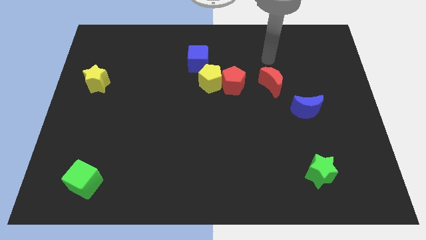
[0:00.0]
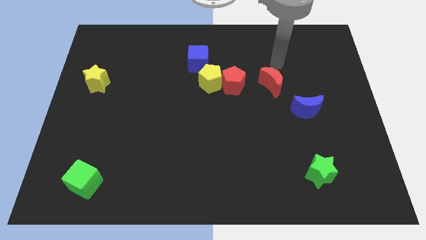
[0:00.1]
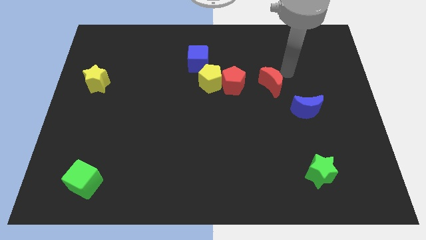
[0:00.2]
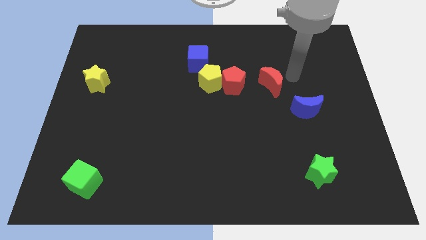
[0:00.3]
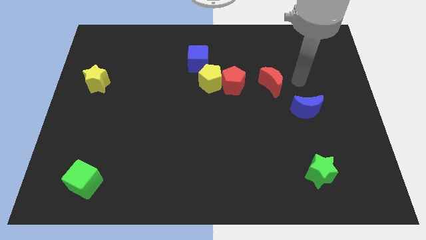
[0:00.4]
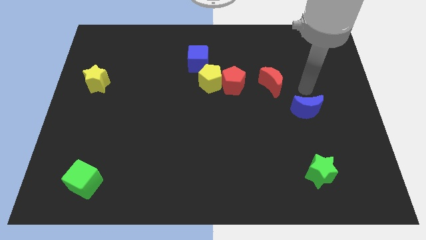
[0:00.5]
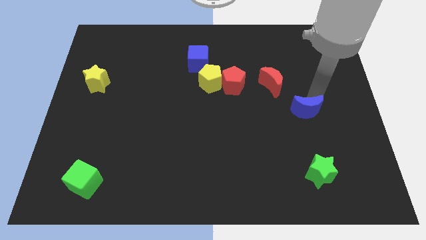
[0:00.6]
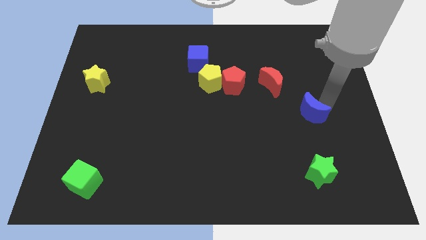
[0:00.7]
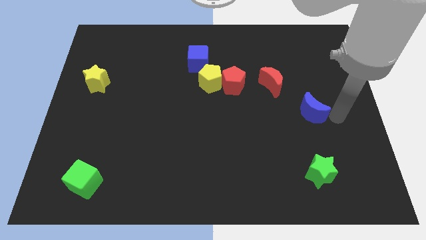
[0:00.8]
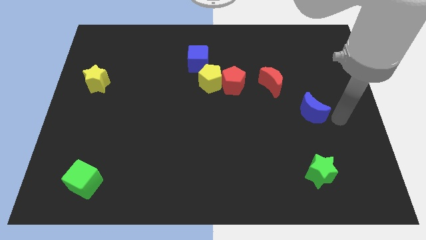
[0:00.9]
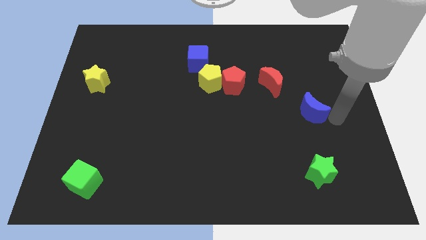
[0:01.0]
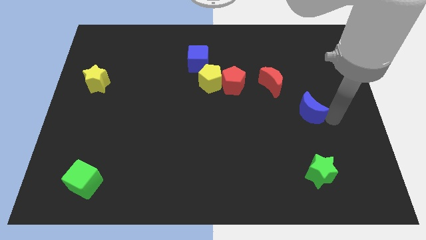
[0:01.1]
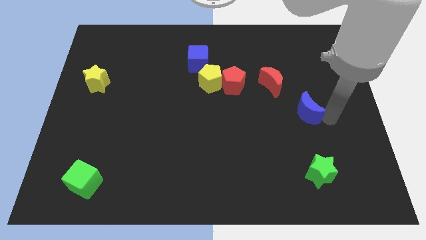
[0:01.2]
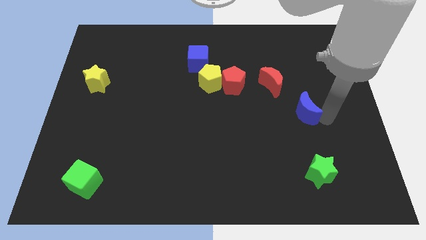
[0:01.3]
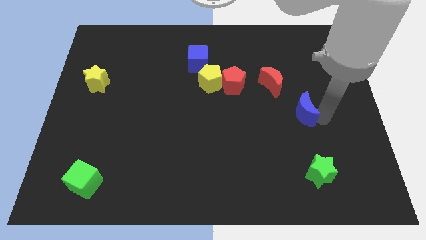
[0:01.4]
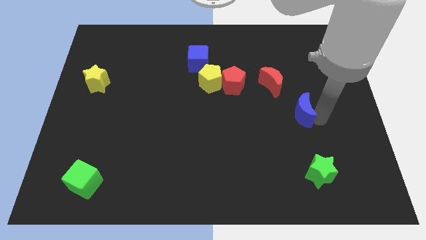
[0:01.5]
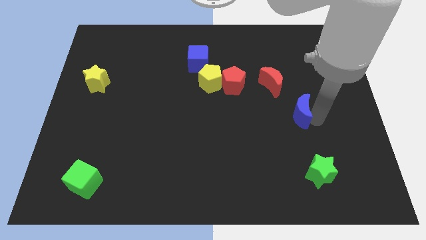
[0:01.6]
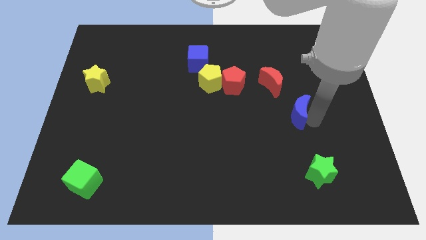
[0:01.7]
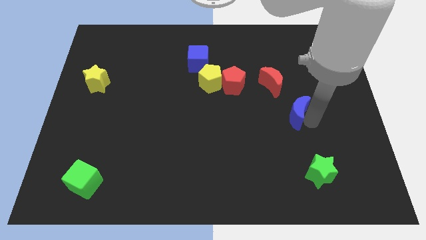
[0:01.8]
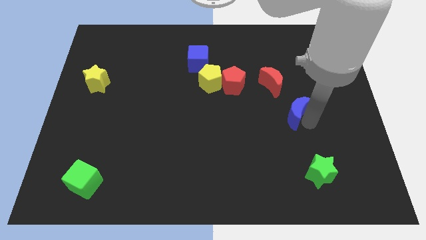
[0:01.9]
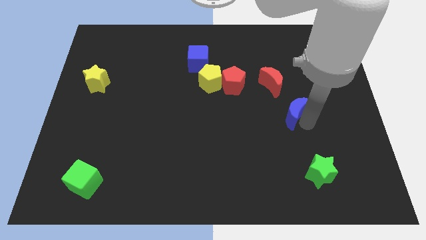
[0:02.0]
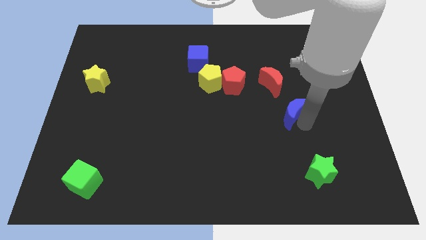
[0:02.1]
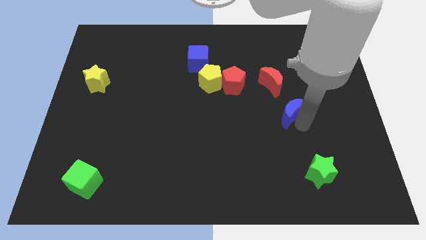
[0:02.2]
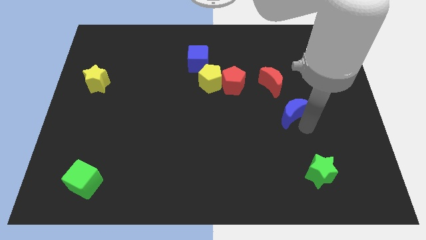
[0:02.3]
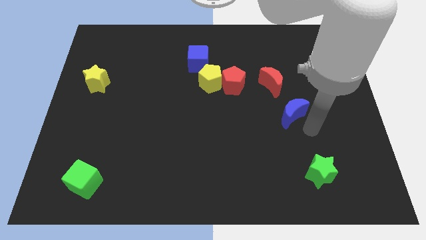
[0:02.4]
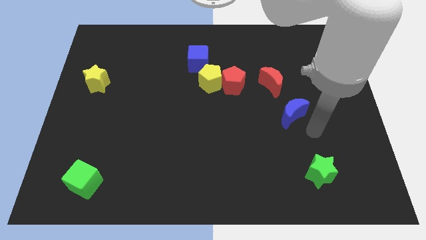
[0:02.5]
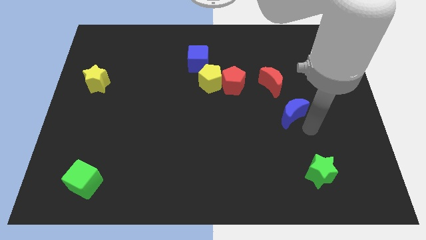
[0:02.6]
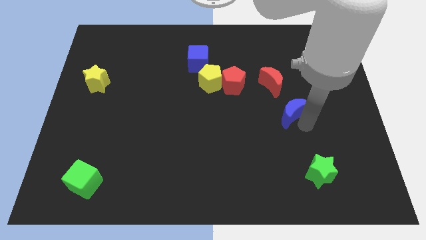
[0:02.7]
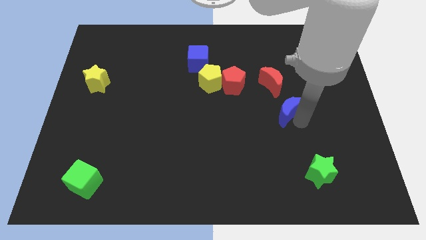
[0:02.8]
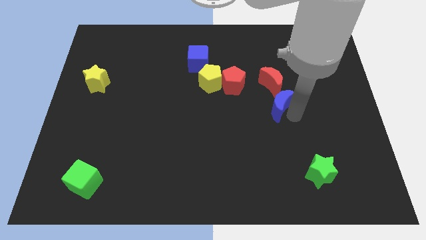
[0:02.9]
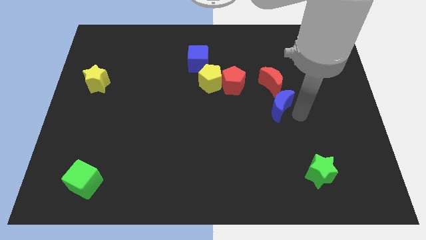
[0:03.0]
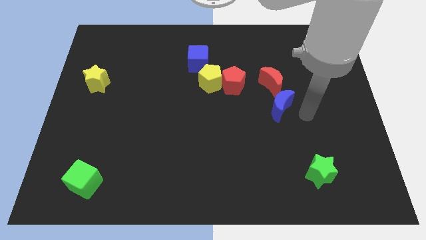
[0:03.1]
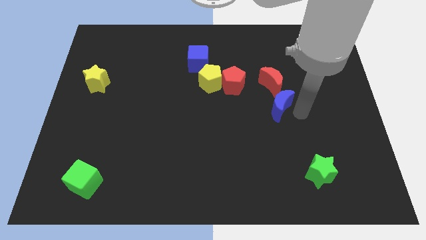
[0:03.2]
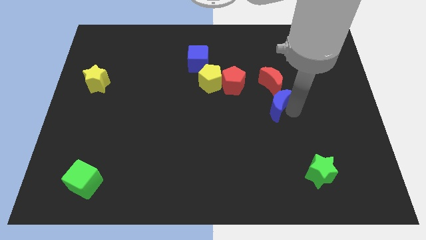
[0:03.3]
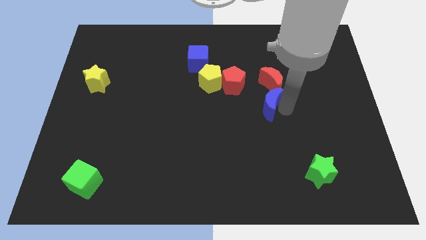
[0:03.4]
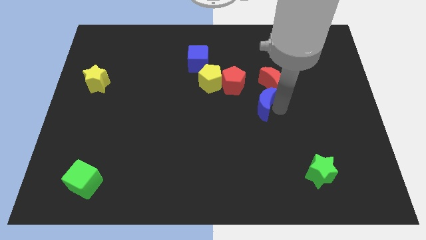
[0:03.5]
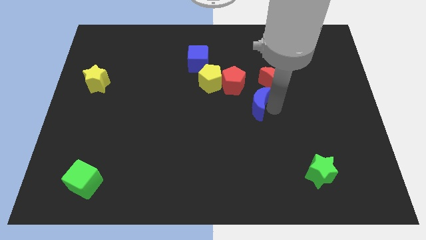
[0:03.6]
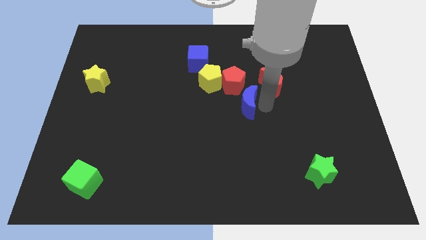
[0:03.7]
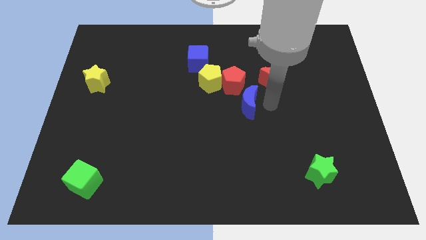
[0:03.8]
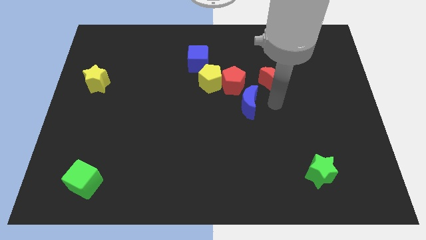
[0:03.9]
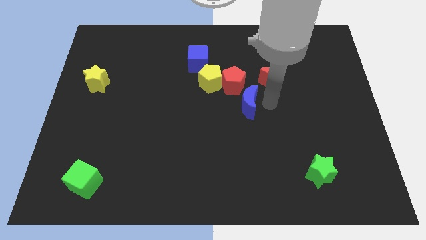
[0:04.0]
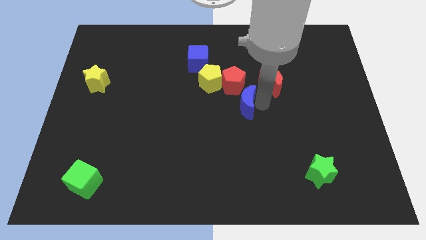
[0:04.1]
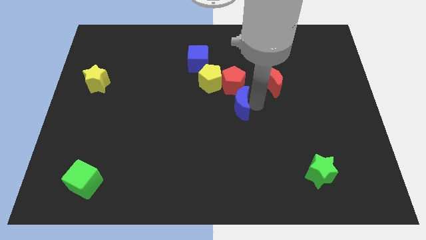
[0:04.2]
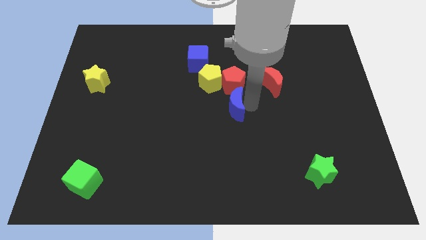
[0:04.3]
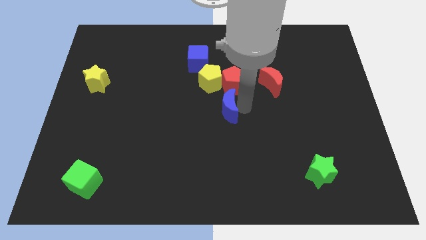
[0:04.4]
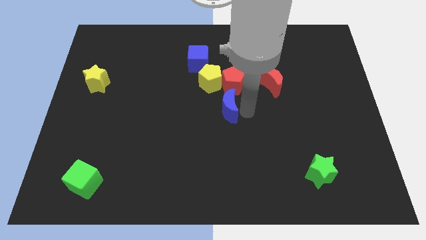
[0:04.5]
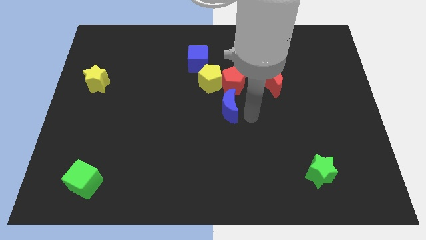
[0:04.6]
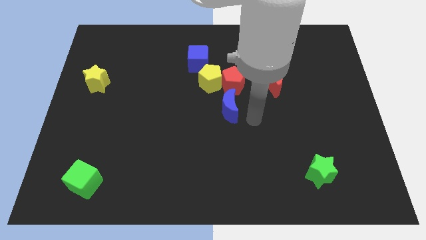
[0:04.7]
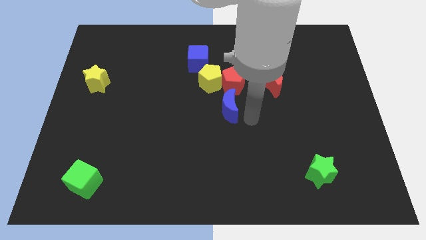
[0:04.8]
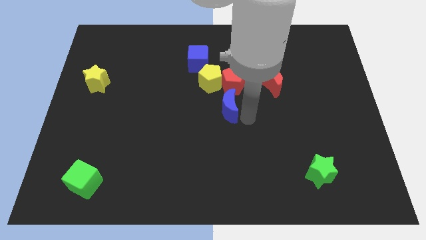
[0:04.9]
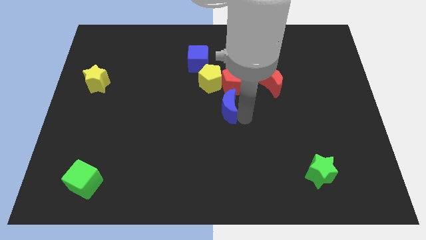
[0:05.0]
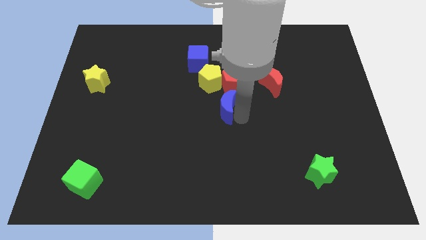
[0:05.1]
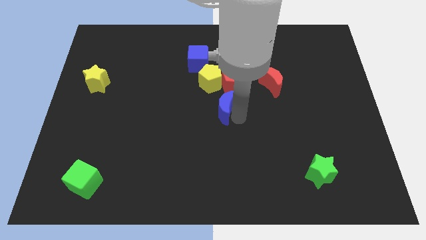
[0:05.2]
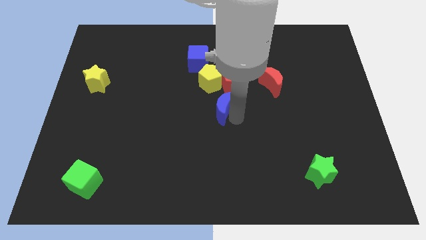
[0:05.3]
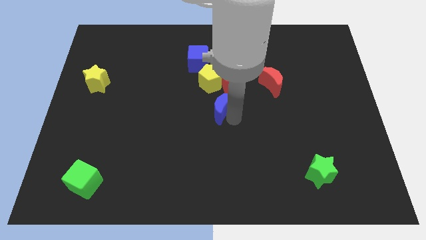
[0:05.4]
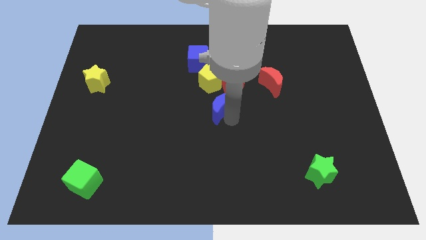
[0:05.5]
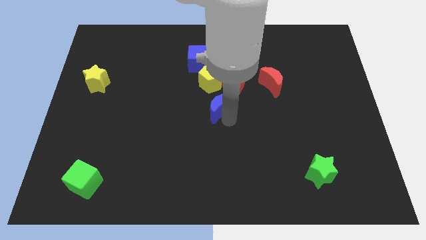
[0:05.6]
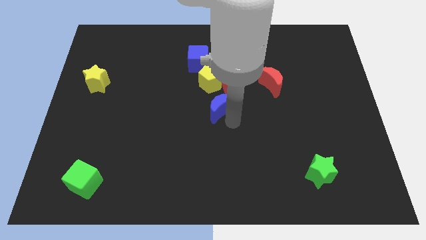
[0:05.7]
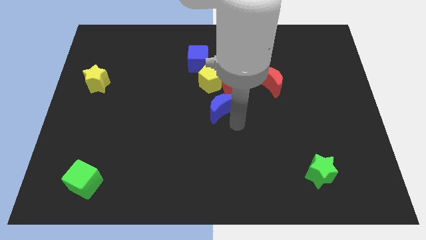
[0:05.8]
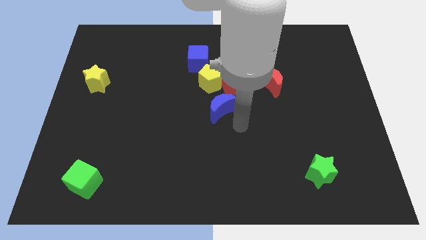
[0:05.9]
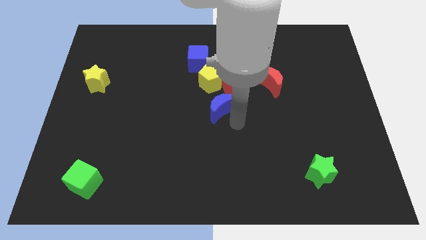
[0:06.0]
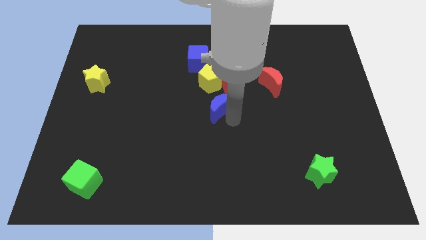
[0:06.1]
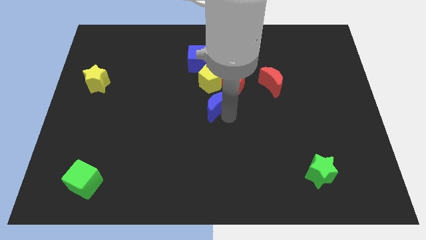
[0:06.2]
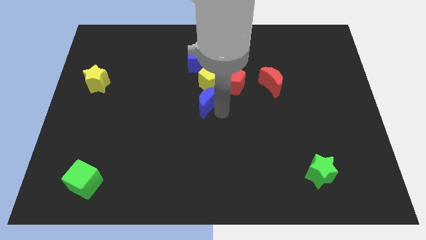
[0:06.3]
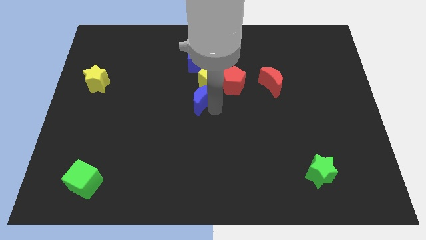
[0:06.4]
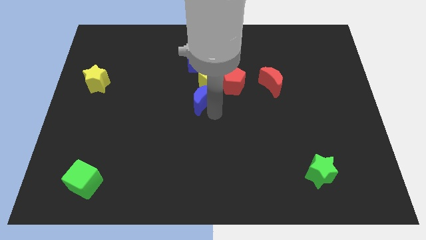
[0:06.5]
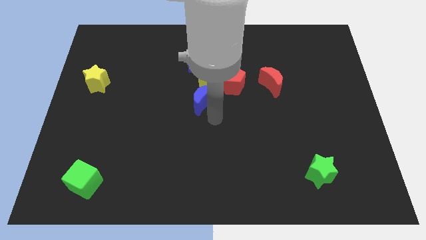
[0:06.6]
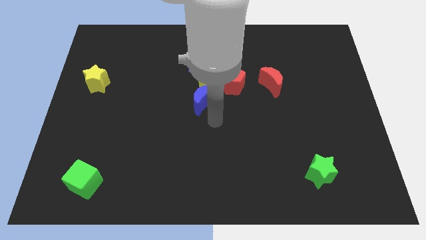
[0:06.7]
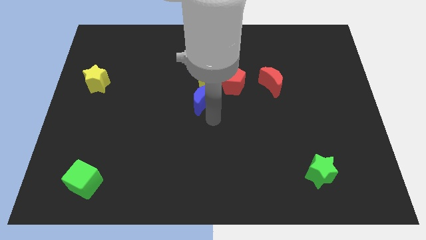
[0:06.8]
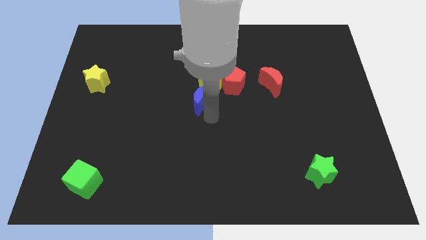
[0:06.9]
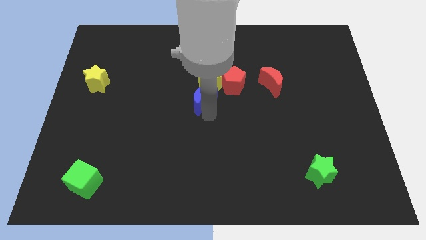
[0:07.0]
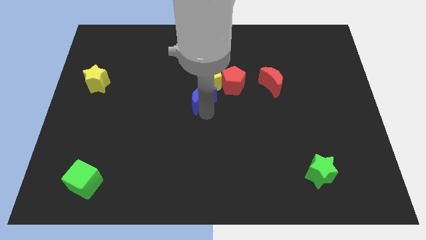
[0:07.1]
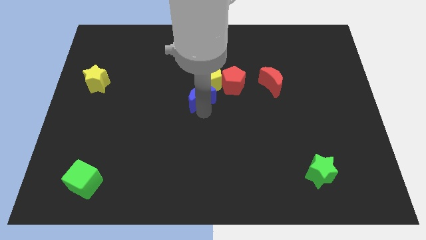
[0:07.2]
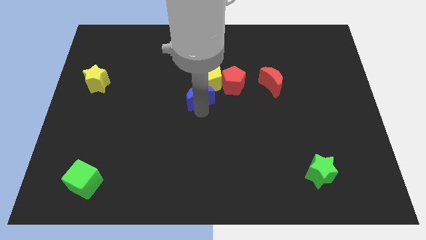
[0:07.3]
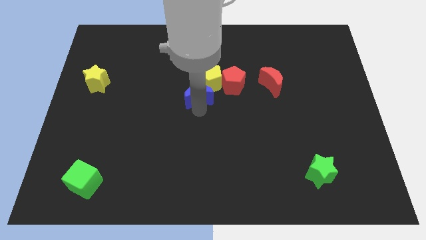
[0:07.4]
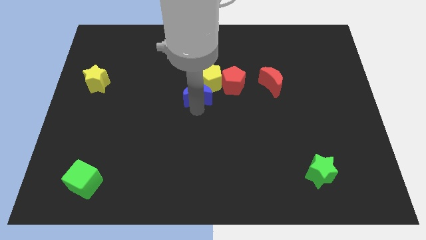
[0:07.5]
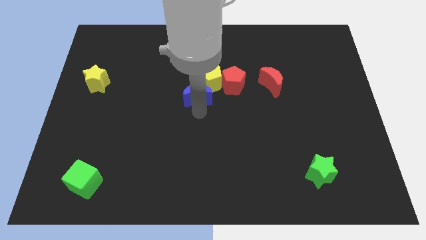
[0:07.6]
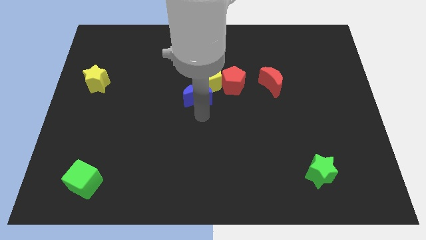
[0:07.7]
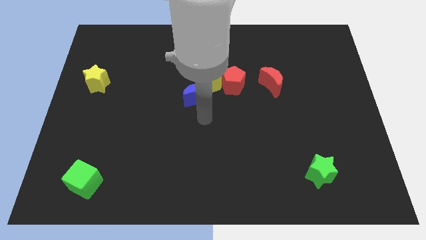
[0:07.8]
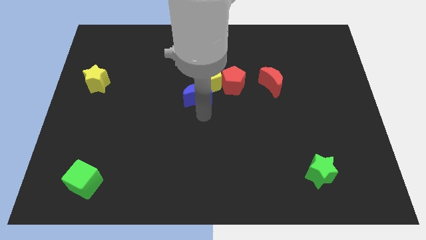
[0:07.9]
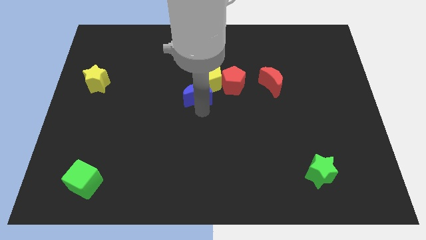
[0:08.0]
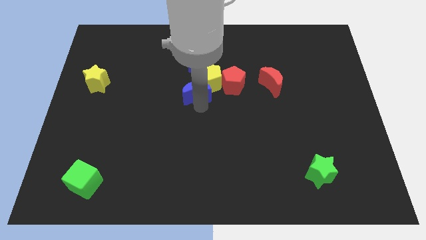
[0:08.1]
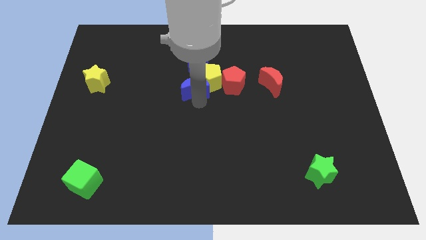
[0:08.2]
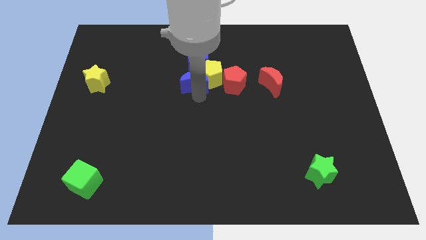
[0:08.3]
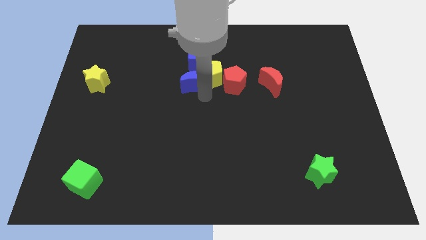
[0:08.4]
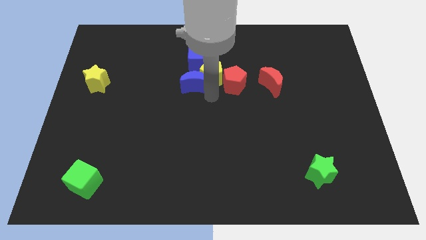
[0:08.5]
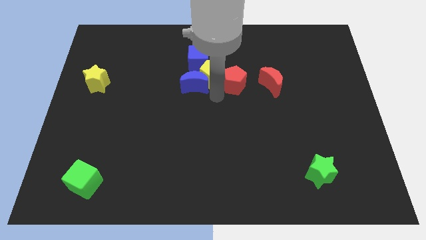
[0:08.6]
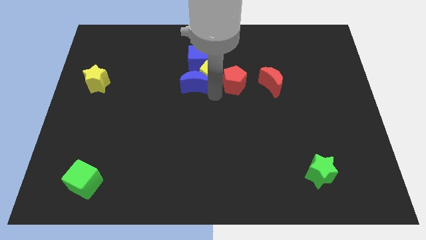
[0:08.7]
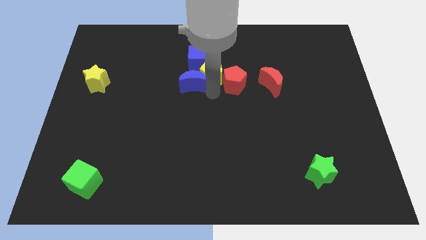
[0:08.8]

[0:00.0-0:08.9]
put the blue moon to the bottom left of the blue cube
